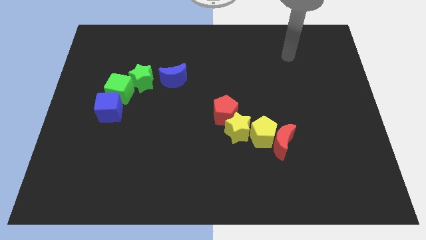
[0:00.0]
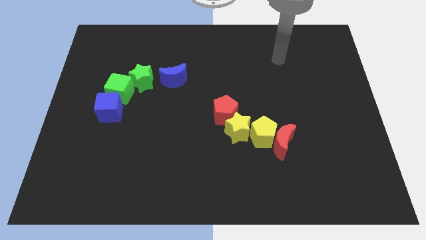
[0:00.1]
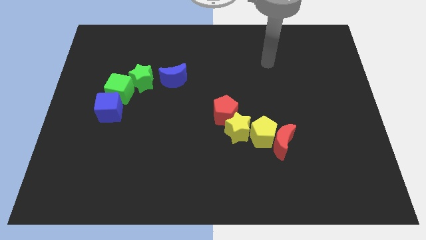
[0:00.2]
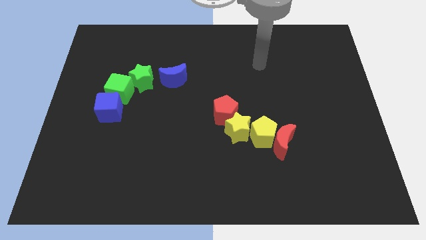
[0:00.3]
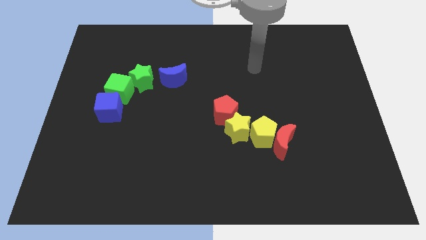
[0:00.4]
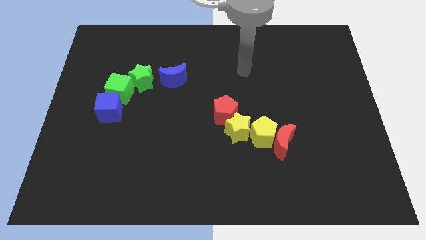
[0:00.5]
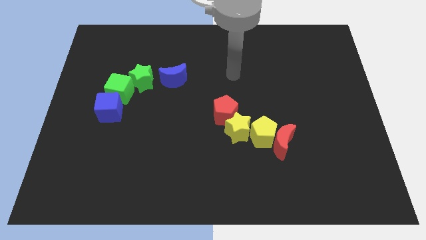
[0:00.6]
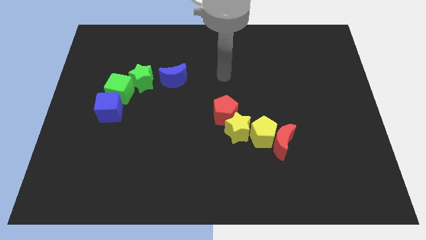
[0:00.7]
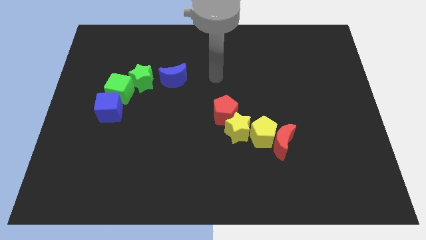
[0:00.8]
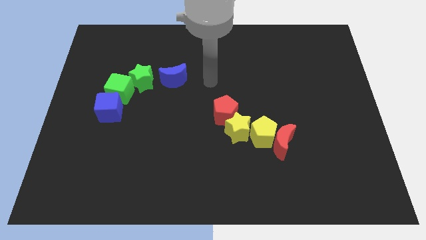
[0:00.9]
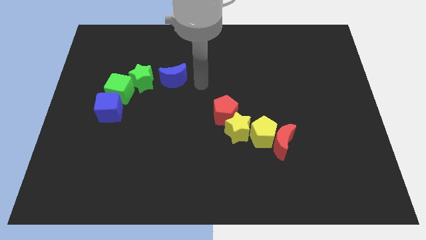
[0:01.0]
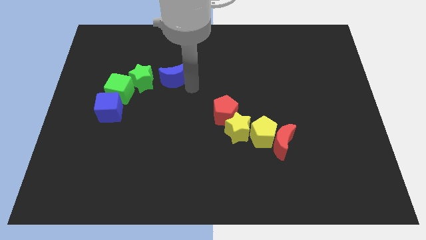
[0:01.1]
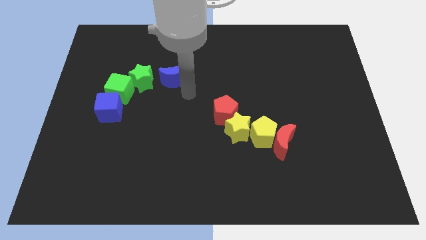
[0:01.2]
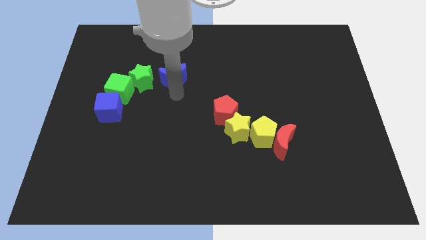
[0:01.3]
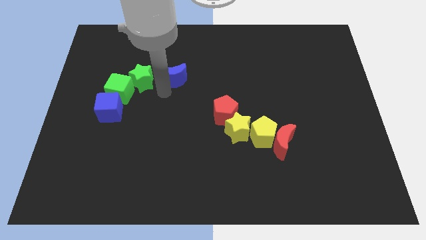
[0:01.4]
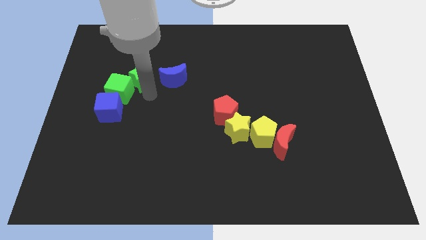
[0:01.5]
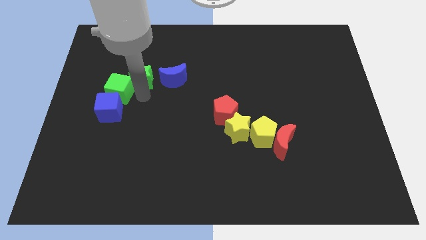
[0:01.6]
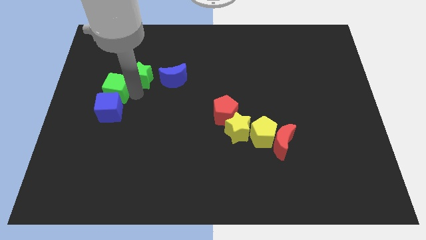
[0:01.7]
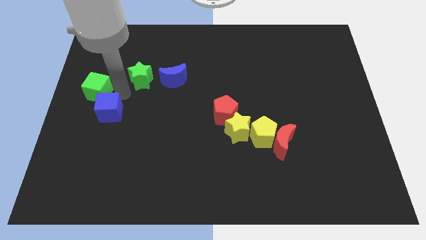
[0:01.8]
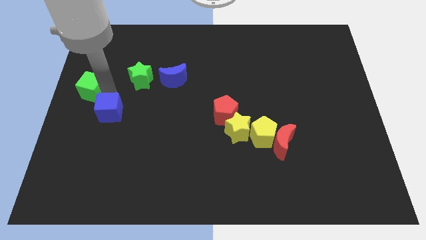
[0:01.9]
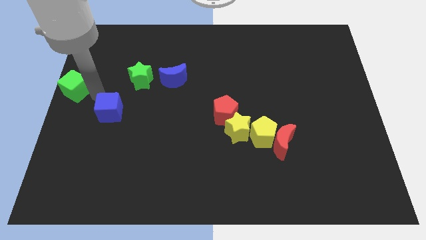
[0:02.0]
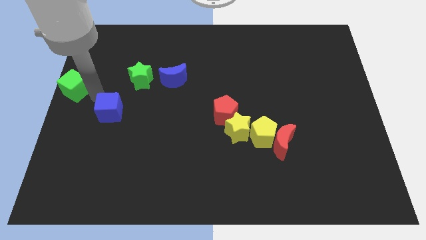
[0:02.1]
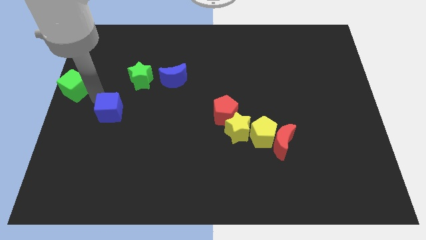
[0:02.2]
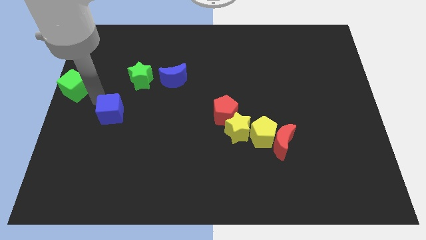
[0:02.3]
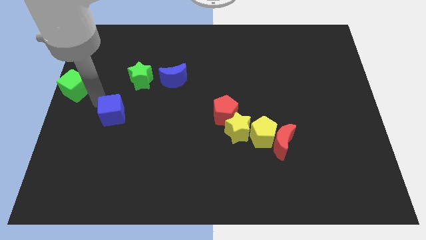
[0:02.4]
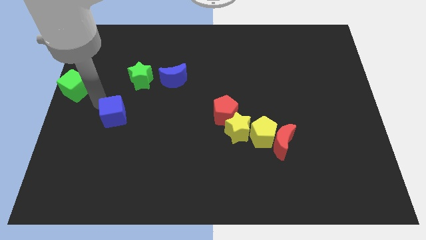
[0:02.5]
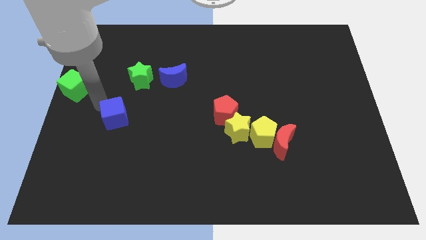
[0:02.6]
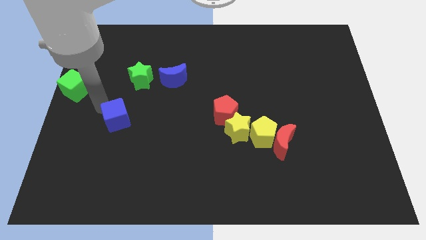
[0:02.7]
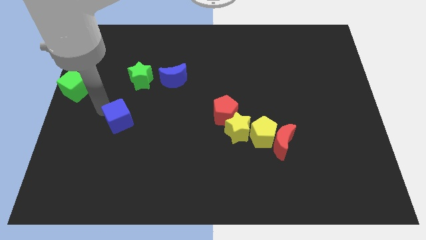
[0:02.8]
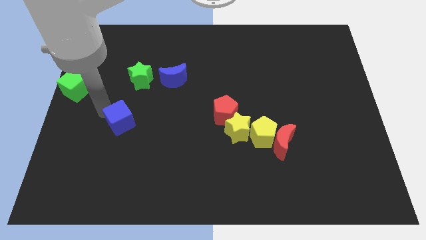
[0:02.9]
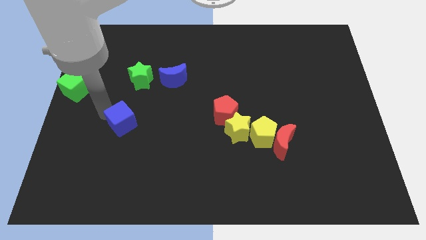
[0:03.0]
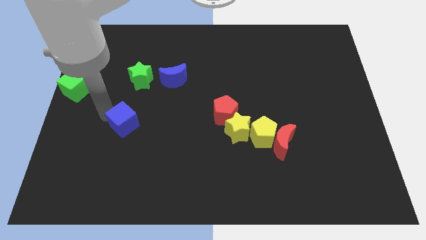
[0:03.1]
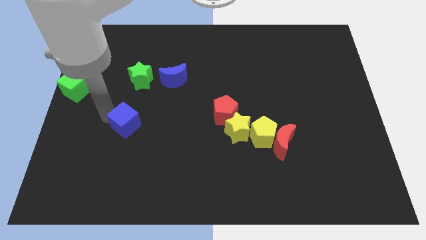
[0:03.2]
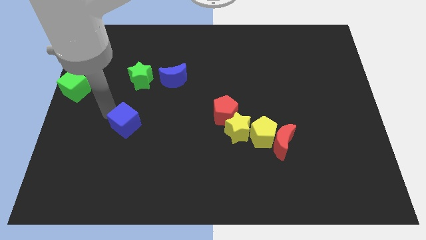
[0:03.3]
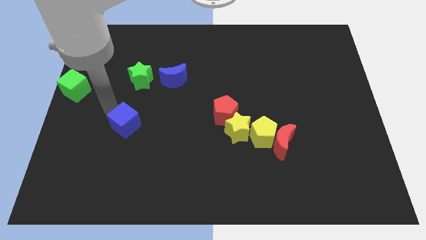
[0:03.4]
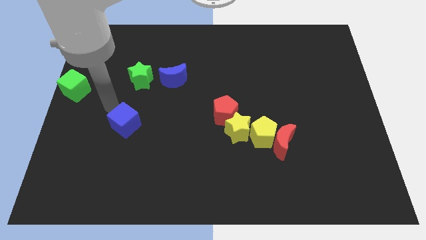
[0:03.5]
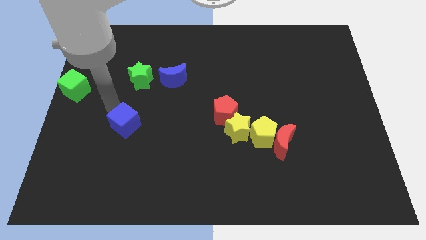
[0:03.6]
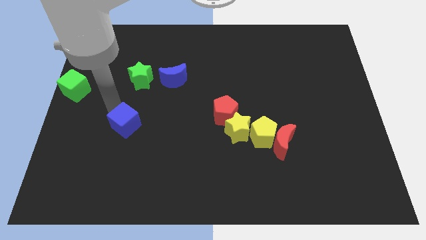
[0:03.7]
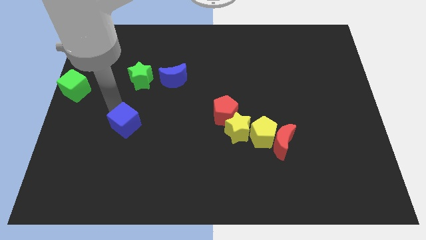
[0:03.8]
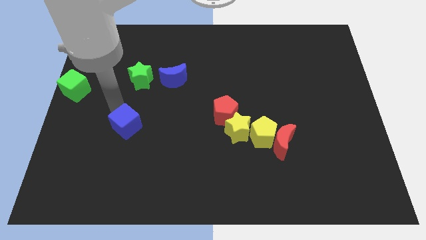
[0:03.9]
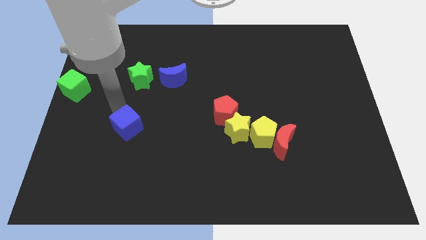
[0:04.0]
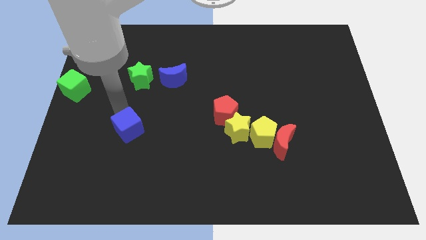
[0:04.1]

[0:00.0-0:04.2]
push the blue cube downwards and right diagonally a bit

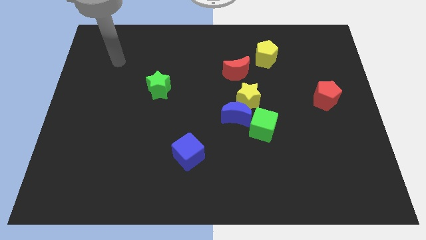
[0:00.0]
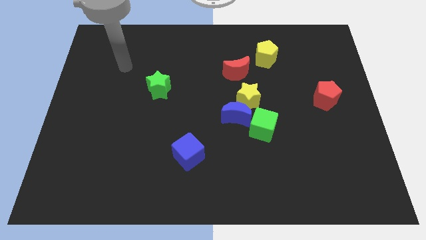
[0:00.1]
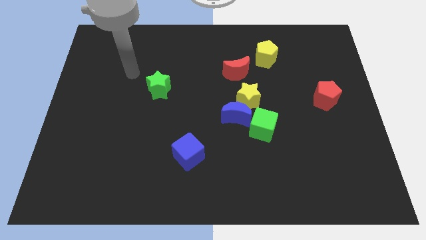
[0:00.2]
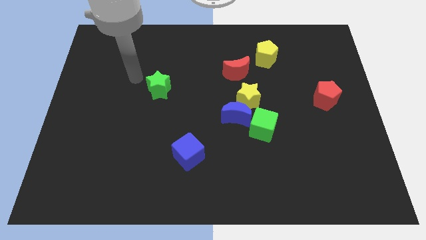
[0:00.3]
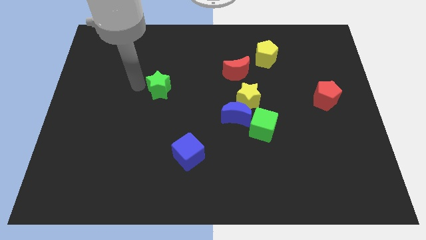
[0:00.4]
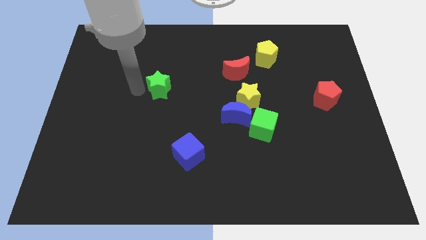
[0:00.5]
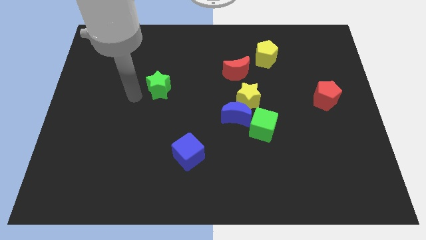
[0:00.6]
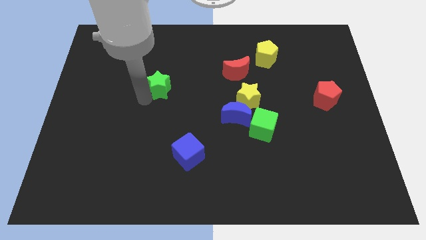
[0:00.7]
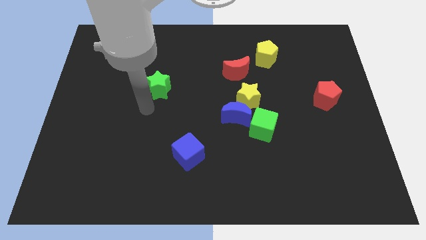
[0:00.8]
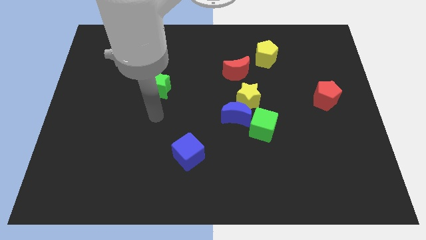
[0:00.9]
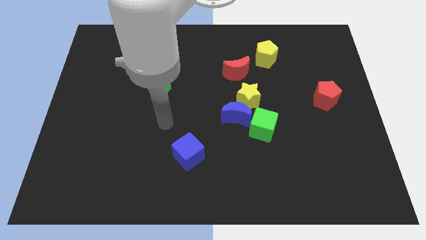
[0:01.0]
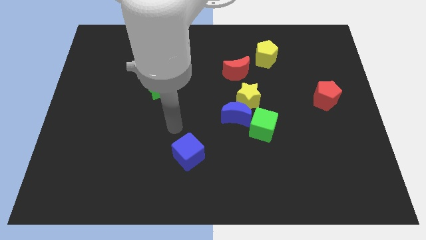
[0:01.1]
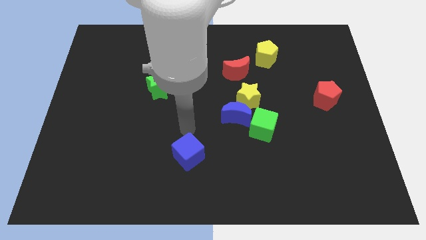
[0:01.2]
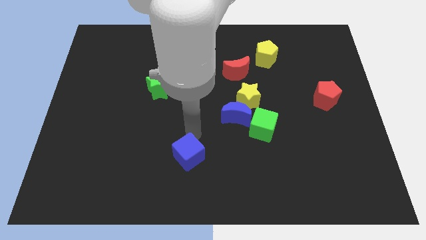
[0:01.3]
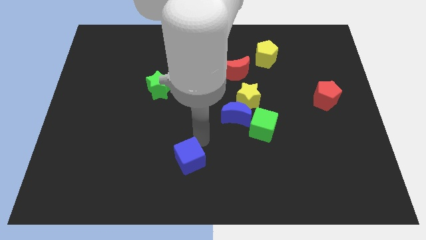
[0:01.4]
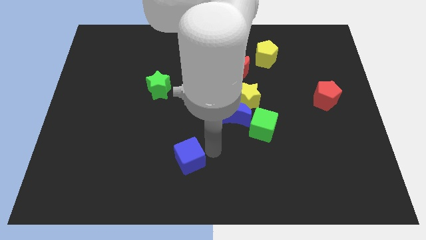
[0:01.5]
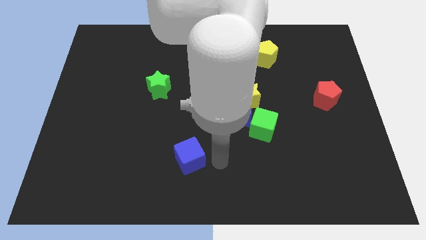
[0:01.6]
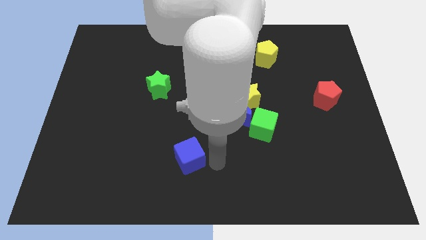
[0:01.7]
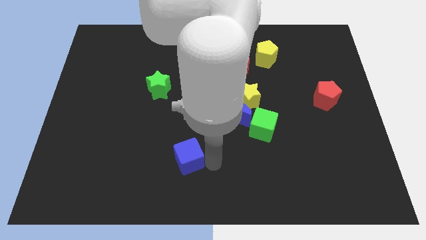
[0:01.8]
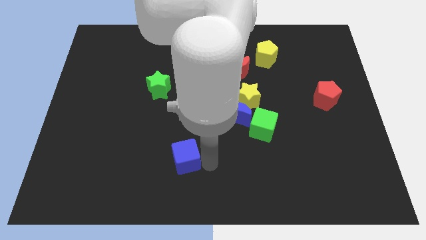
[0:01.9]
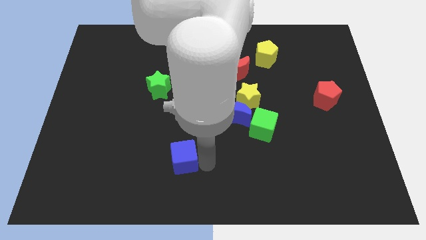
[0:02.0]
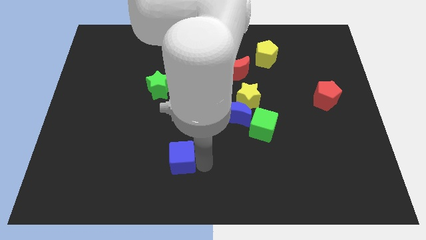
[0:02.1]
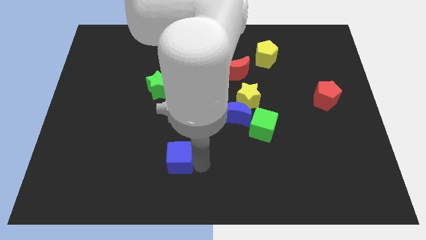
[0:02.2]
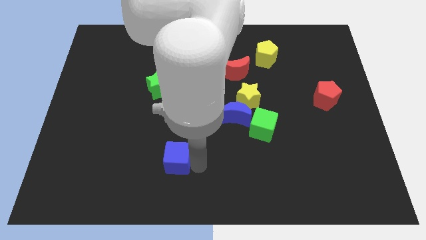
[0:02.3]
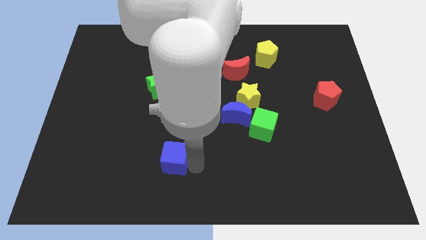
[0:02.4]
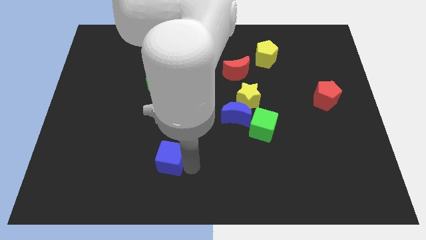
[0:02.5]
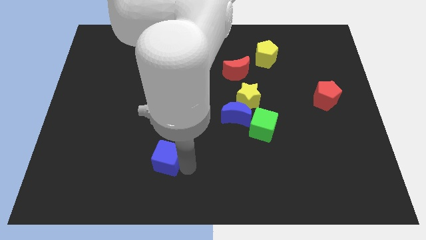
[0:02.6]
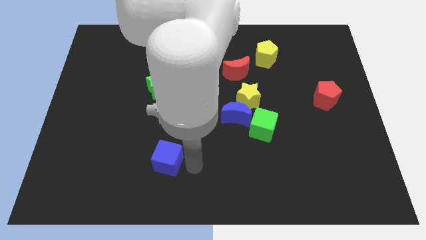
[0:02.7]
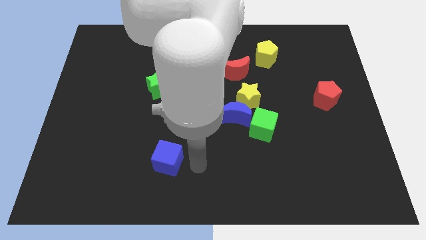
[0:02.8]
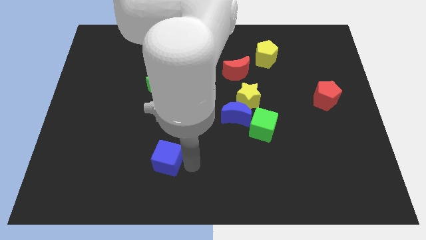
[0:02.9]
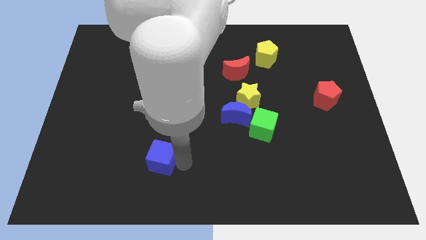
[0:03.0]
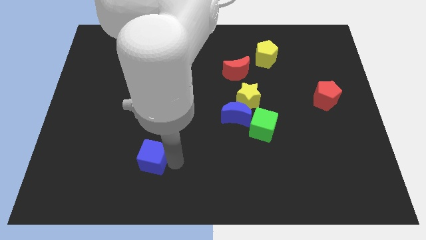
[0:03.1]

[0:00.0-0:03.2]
move the blue cube somewhat to the left

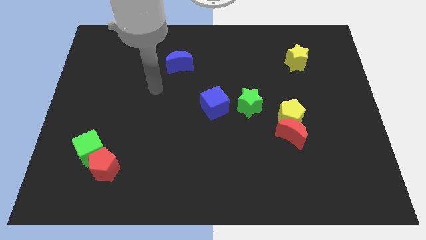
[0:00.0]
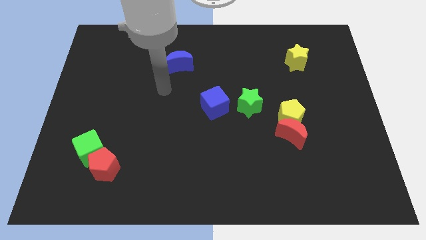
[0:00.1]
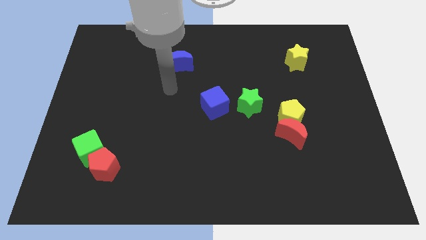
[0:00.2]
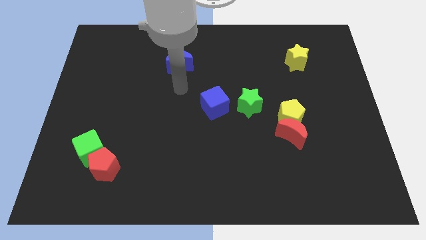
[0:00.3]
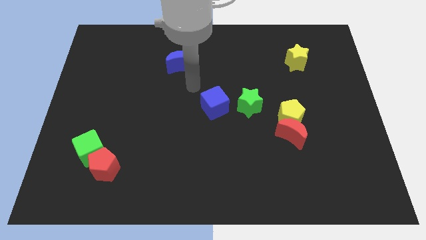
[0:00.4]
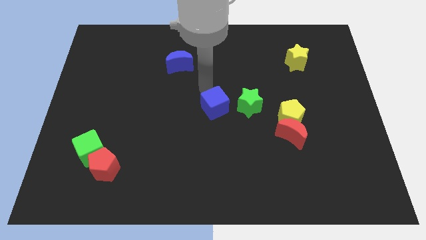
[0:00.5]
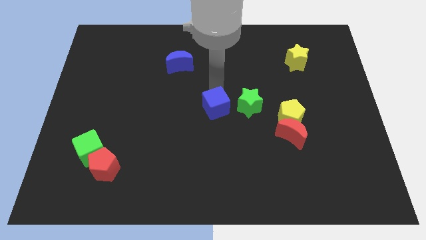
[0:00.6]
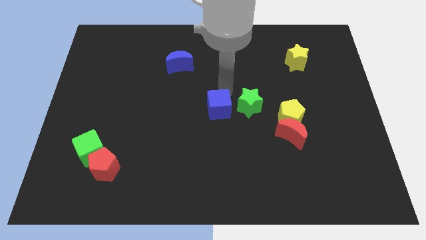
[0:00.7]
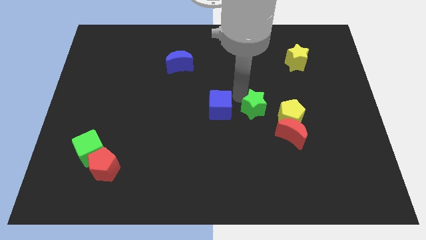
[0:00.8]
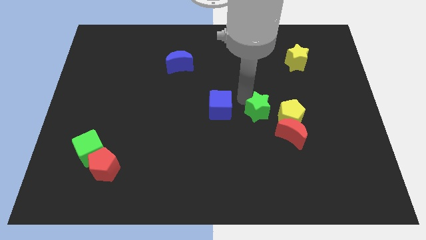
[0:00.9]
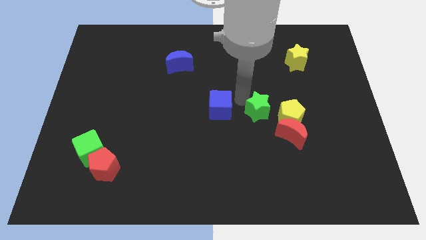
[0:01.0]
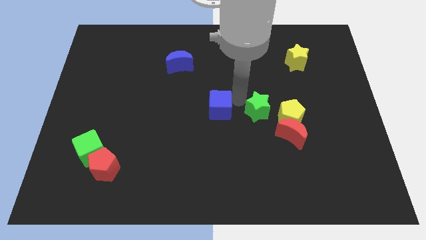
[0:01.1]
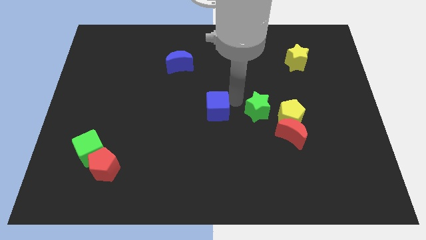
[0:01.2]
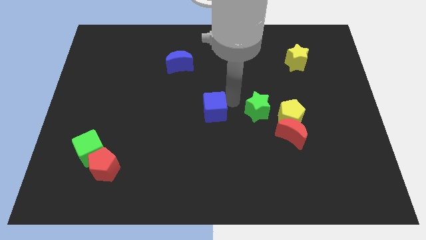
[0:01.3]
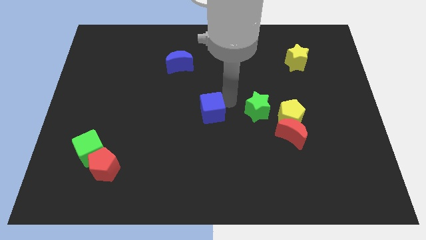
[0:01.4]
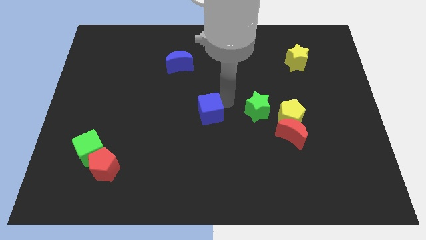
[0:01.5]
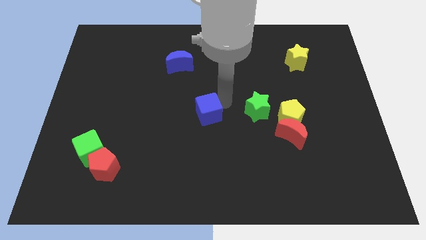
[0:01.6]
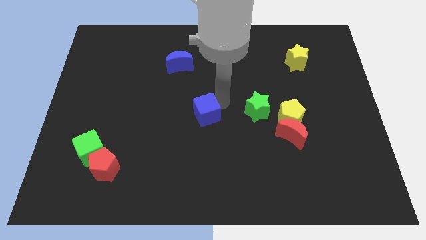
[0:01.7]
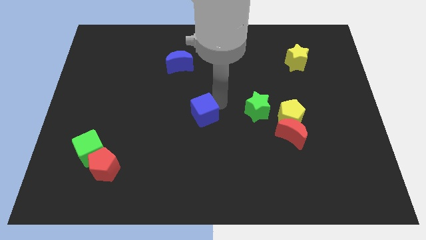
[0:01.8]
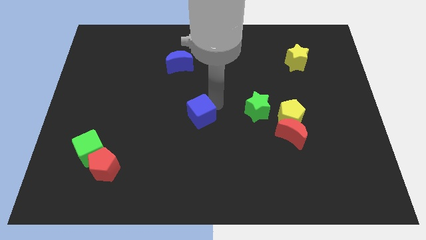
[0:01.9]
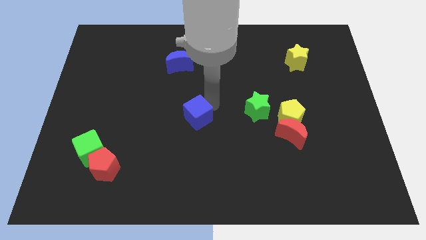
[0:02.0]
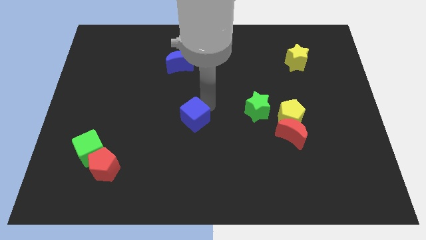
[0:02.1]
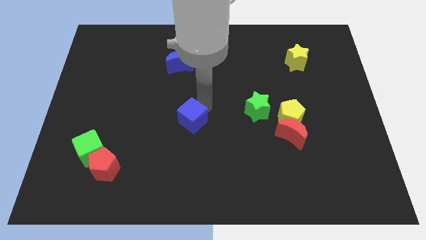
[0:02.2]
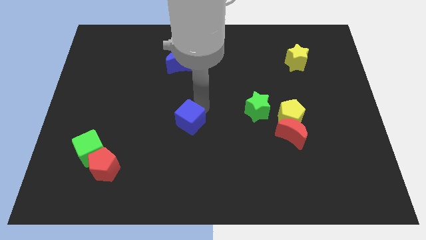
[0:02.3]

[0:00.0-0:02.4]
move the blue cube a bit down and then to the left
